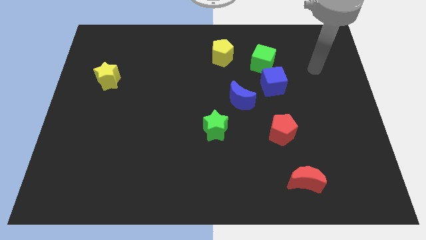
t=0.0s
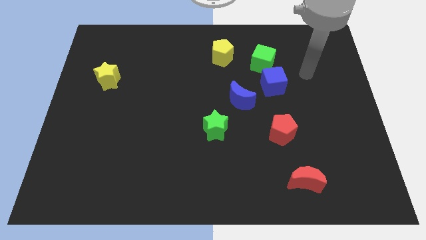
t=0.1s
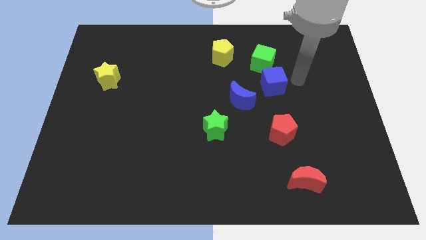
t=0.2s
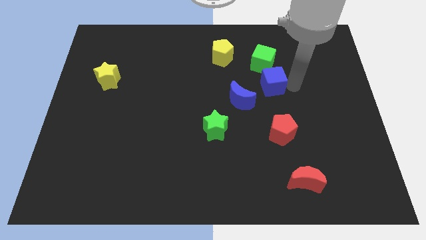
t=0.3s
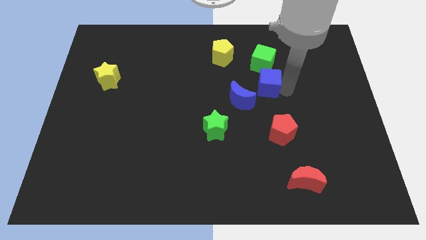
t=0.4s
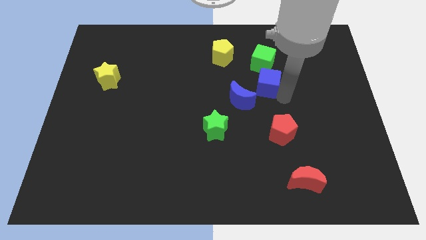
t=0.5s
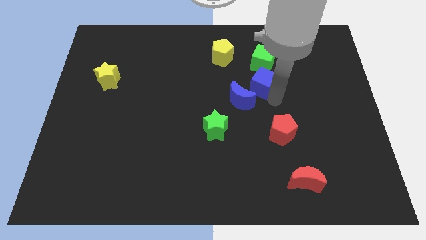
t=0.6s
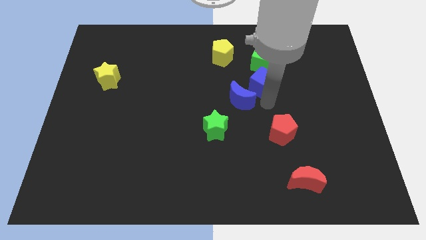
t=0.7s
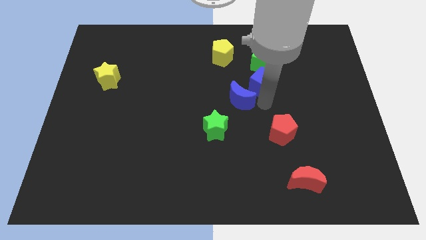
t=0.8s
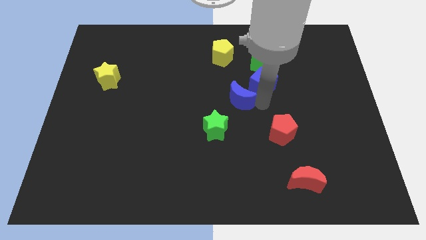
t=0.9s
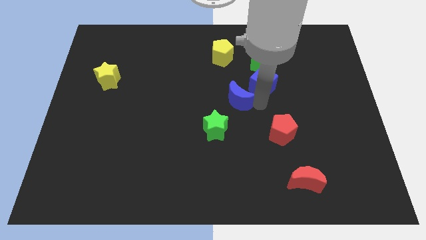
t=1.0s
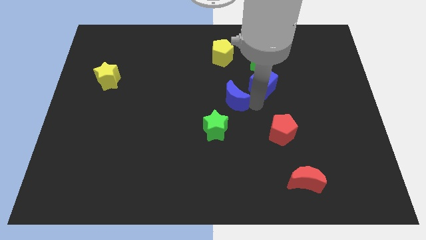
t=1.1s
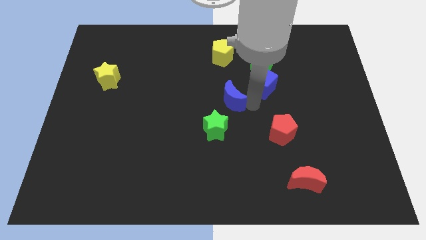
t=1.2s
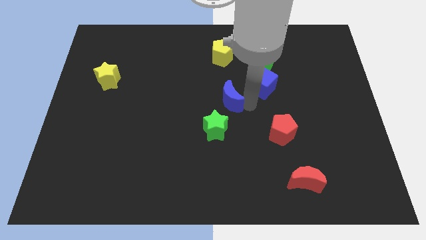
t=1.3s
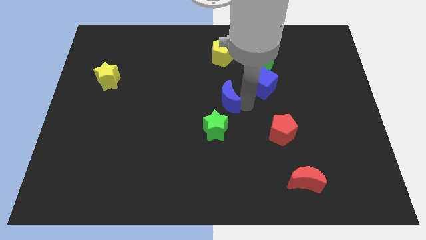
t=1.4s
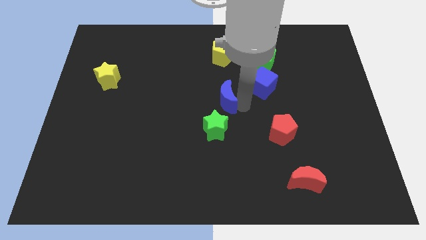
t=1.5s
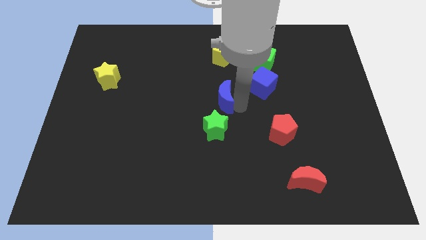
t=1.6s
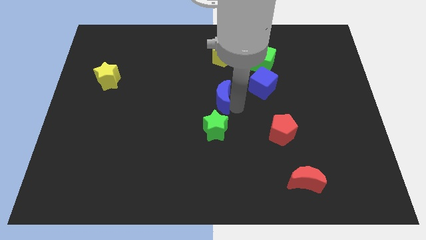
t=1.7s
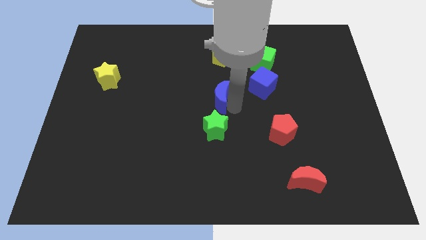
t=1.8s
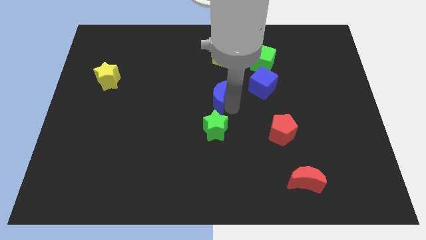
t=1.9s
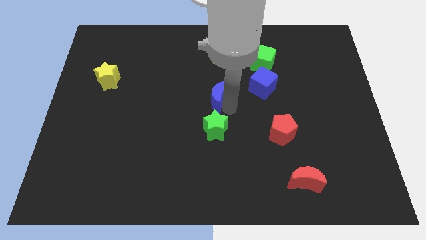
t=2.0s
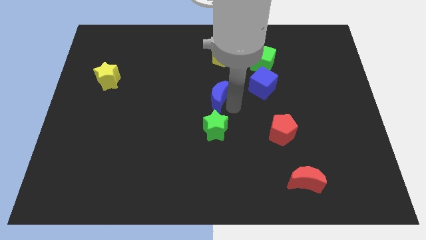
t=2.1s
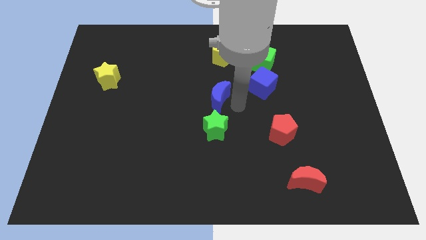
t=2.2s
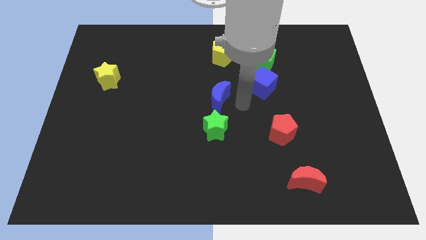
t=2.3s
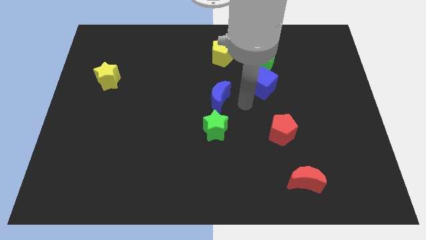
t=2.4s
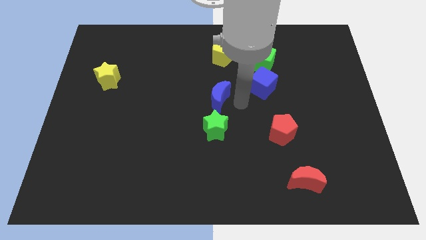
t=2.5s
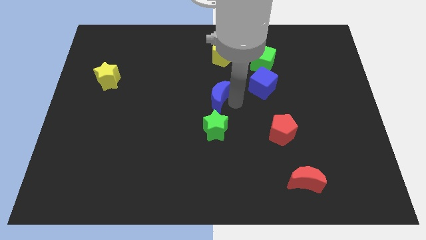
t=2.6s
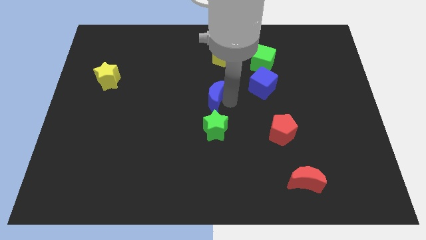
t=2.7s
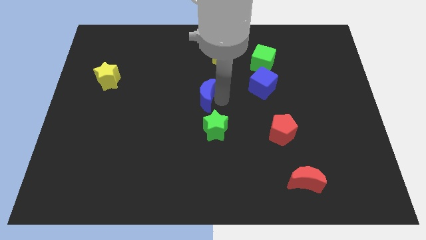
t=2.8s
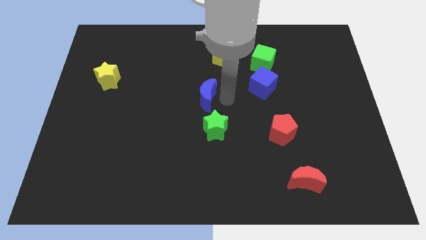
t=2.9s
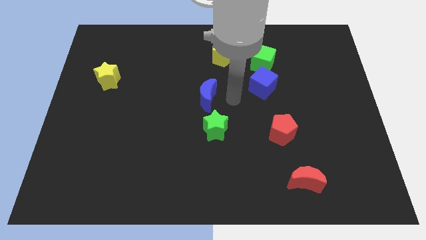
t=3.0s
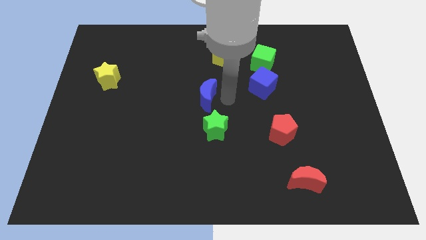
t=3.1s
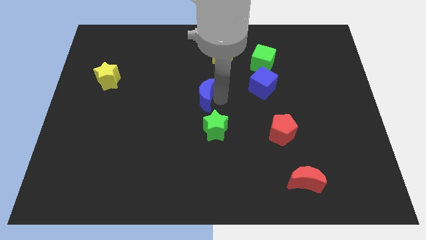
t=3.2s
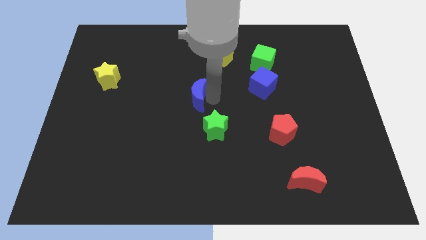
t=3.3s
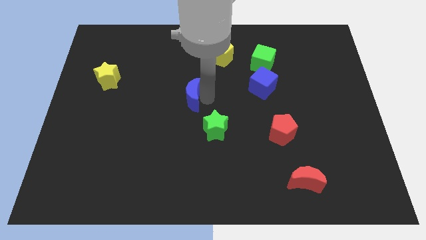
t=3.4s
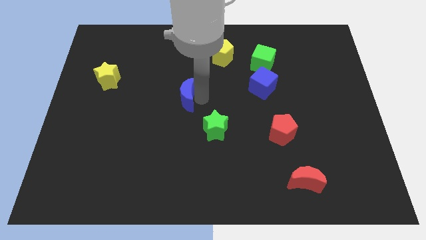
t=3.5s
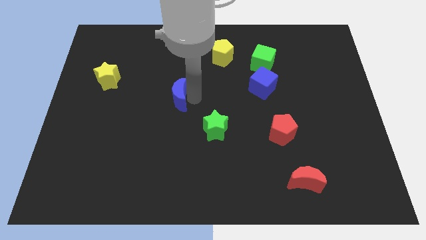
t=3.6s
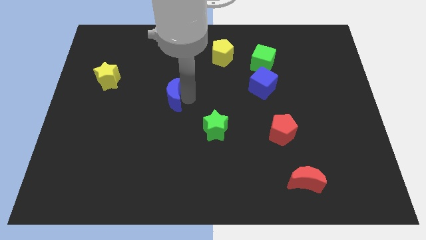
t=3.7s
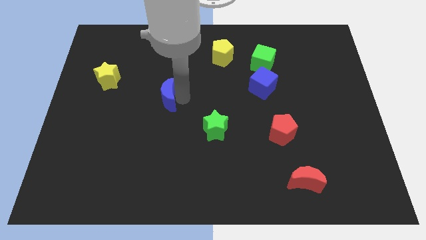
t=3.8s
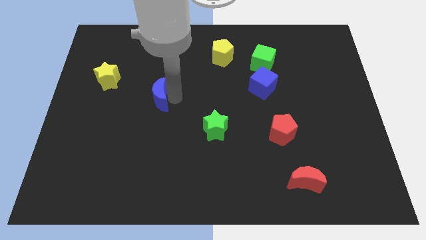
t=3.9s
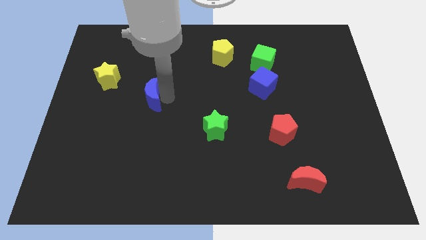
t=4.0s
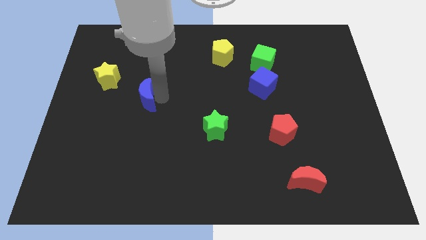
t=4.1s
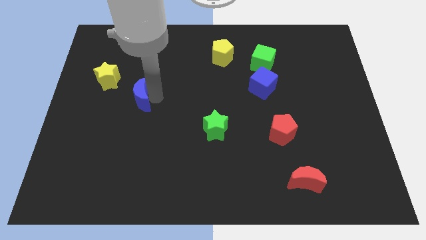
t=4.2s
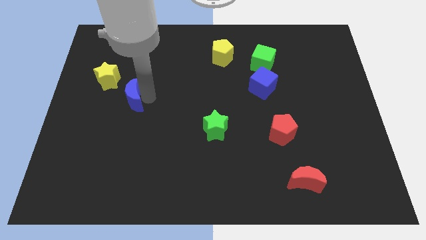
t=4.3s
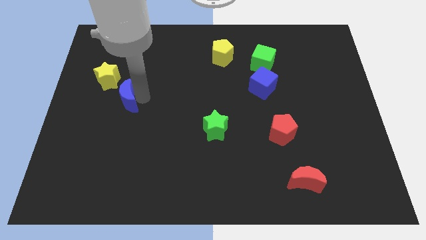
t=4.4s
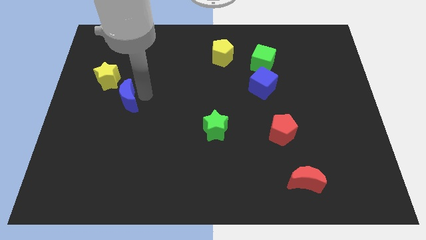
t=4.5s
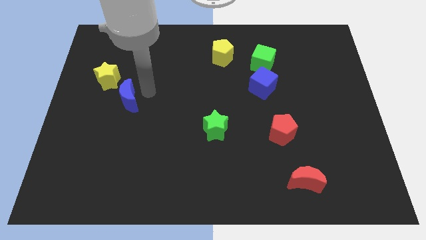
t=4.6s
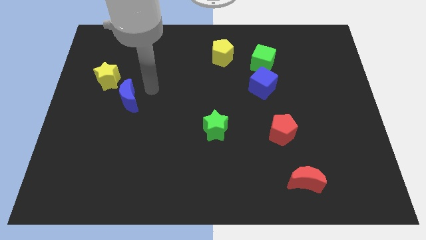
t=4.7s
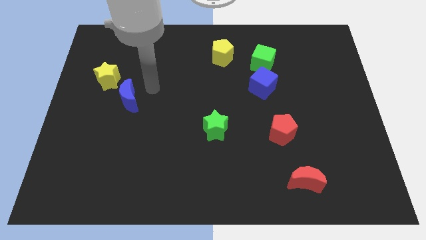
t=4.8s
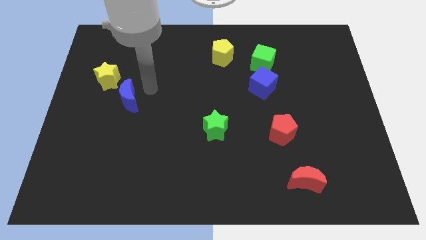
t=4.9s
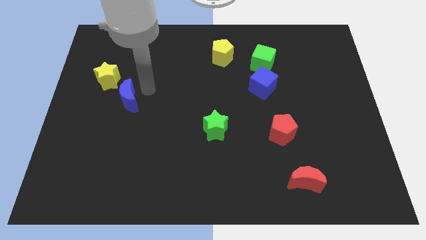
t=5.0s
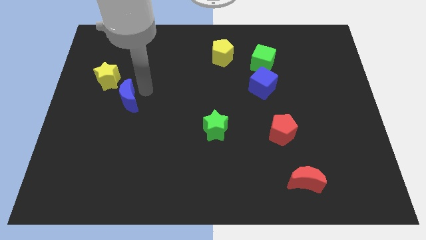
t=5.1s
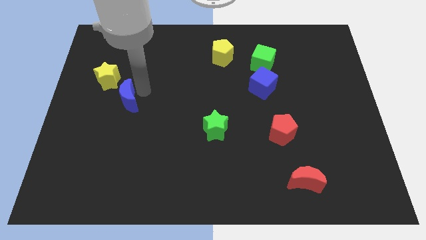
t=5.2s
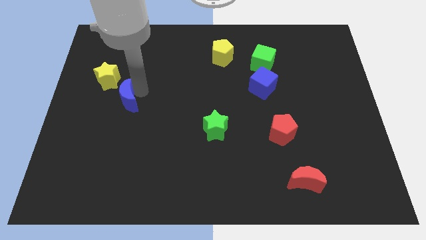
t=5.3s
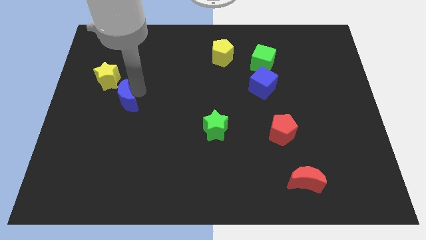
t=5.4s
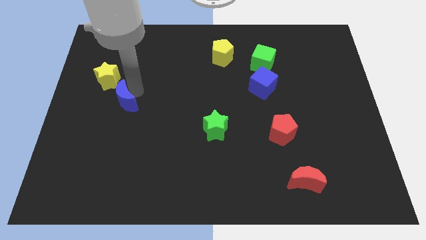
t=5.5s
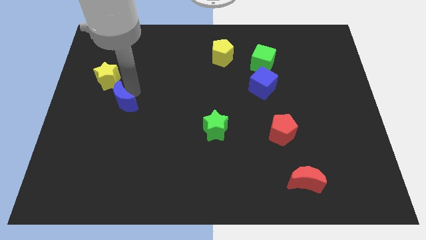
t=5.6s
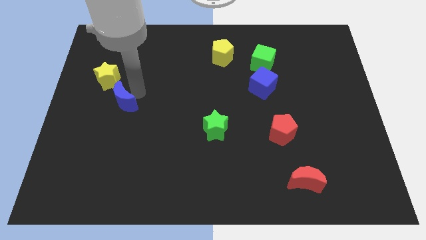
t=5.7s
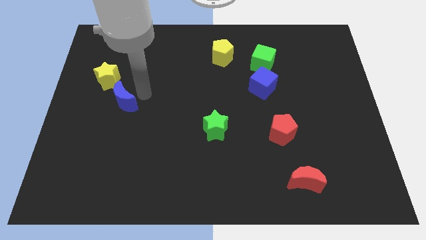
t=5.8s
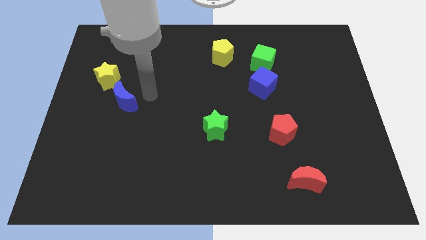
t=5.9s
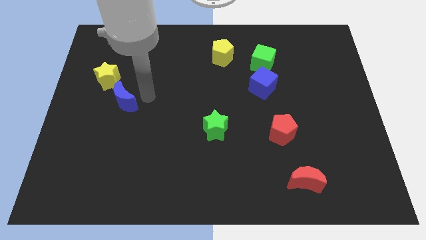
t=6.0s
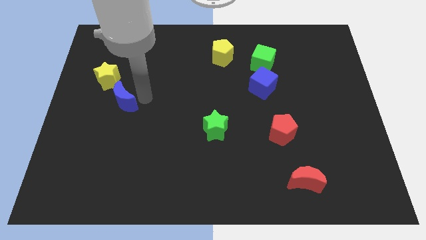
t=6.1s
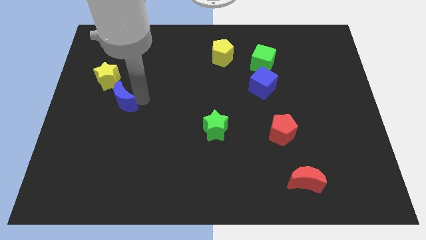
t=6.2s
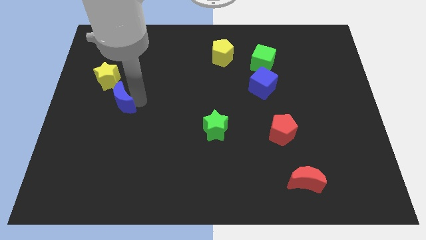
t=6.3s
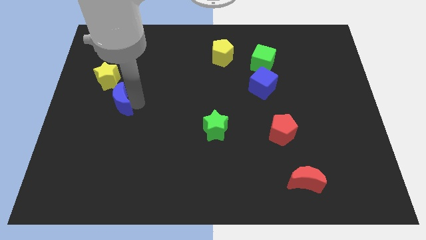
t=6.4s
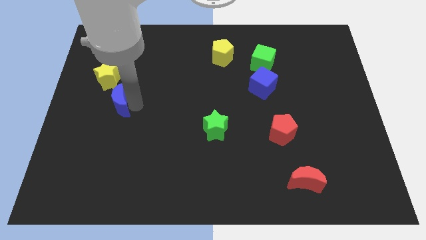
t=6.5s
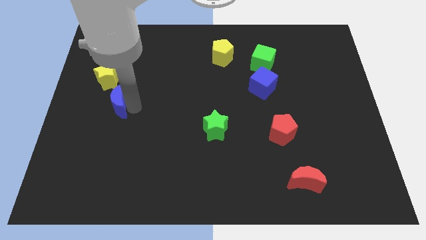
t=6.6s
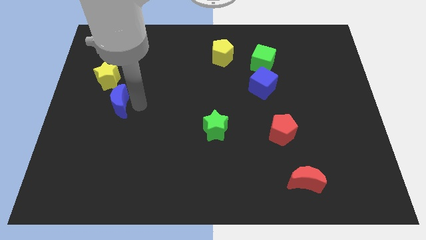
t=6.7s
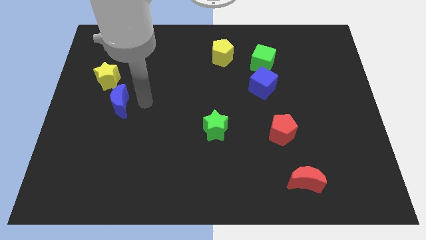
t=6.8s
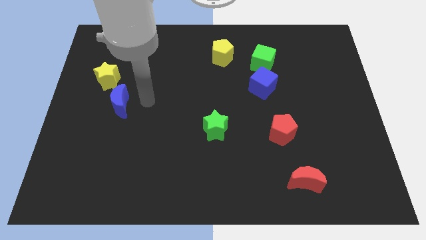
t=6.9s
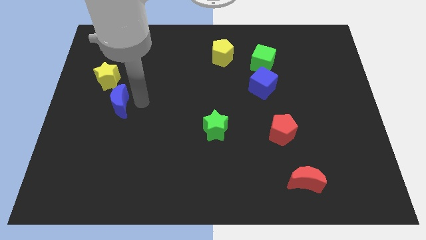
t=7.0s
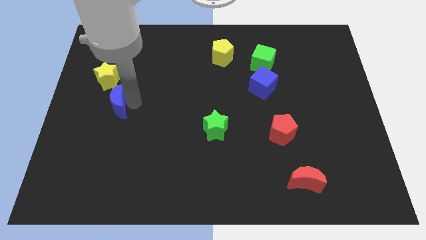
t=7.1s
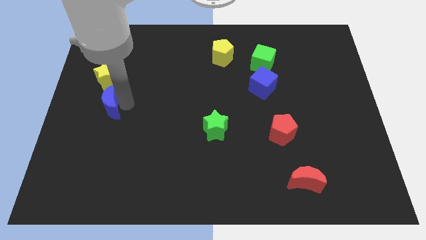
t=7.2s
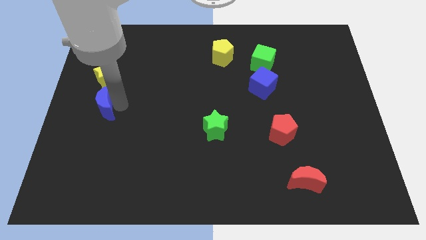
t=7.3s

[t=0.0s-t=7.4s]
push the blue moon to the left side of the board
